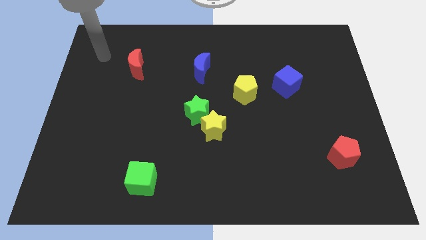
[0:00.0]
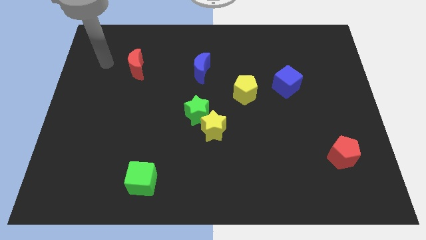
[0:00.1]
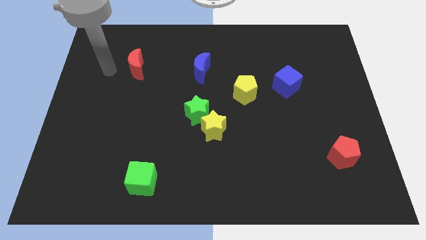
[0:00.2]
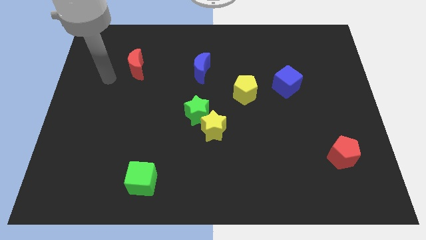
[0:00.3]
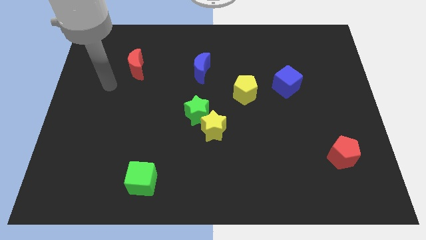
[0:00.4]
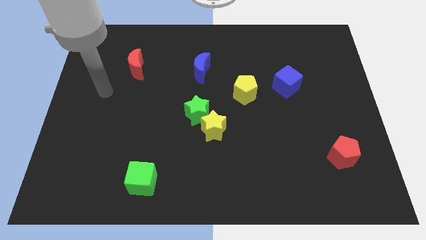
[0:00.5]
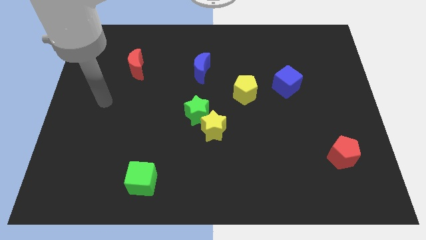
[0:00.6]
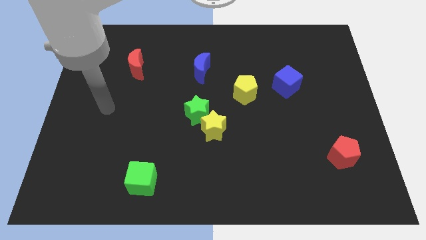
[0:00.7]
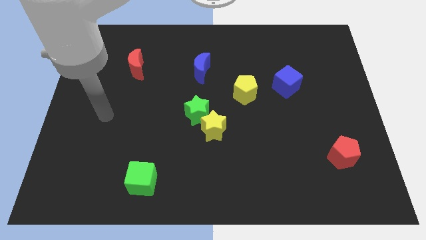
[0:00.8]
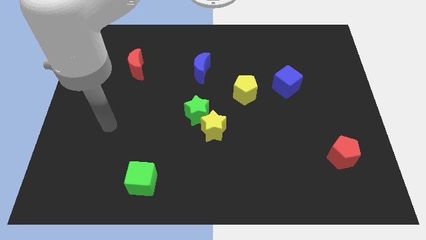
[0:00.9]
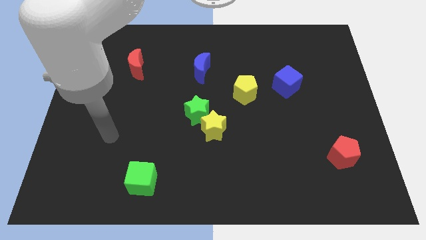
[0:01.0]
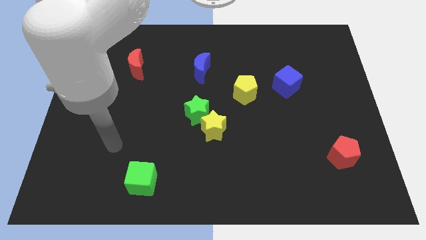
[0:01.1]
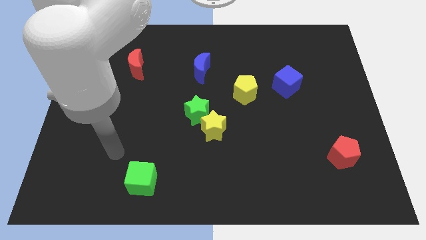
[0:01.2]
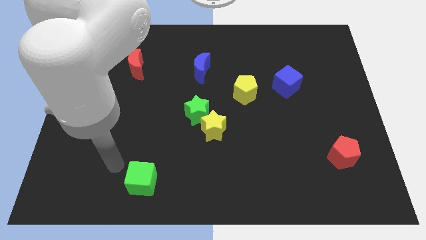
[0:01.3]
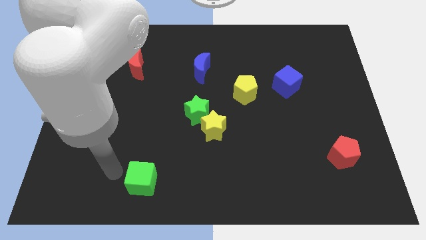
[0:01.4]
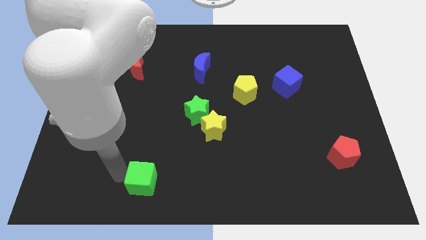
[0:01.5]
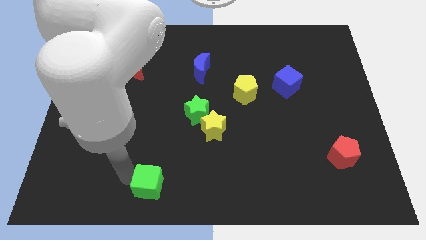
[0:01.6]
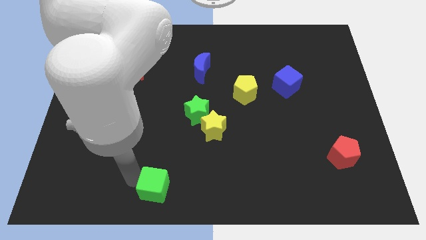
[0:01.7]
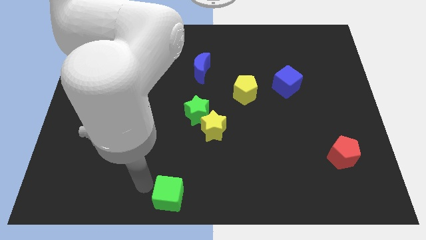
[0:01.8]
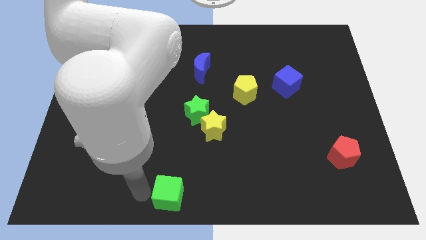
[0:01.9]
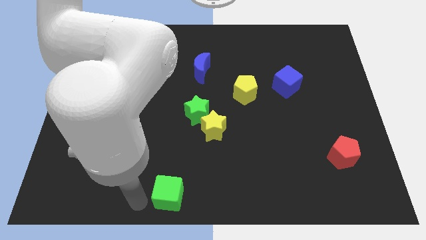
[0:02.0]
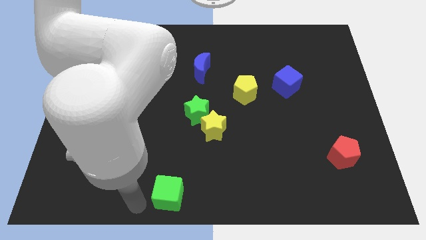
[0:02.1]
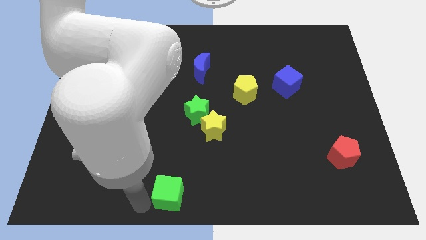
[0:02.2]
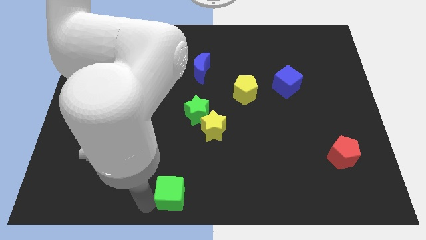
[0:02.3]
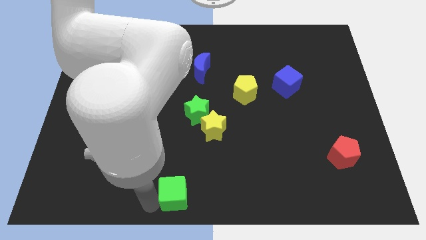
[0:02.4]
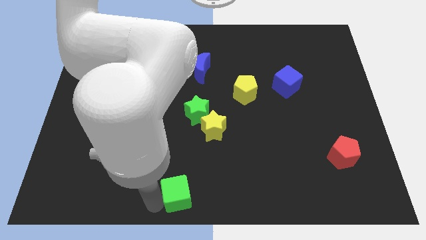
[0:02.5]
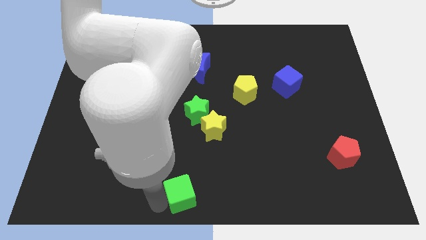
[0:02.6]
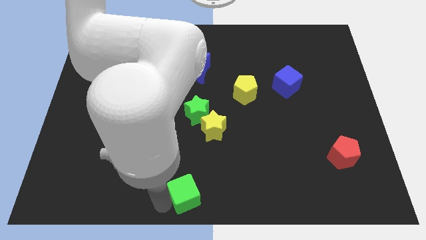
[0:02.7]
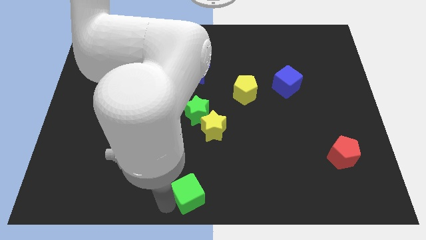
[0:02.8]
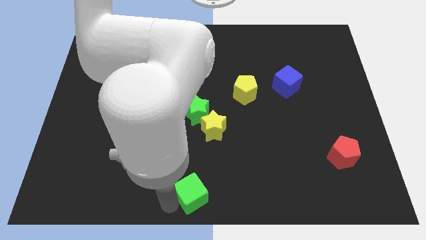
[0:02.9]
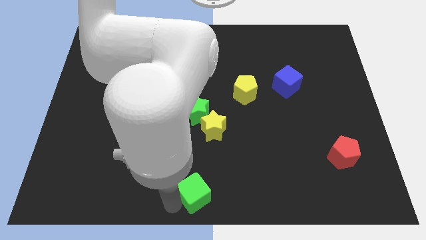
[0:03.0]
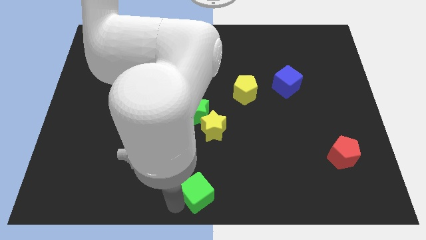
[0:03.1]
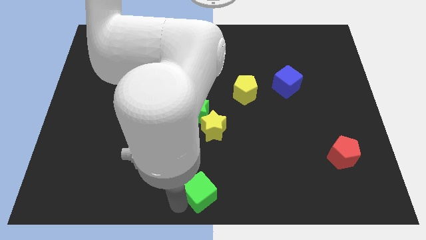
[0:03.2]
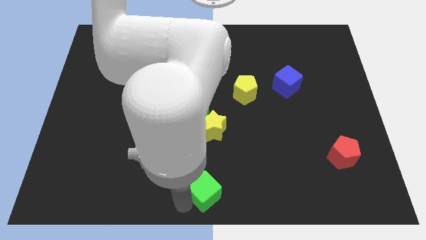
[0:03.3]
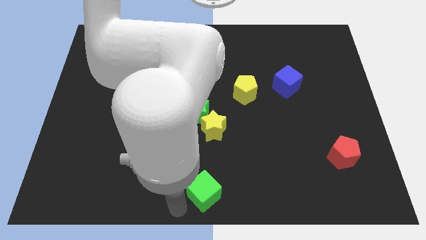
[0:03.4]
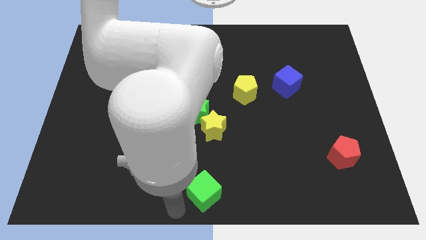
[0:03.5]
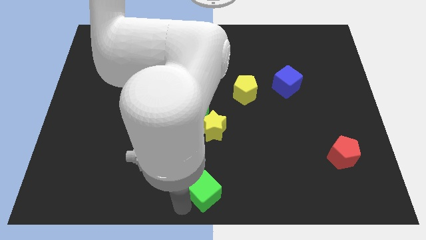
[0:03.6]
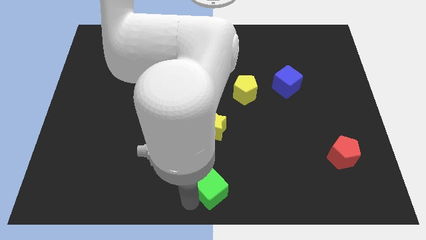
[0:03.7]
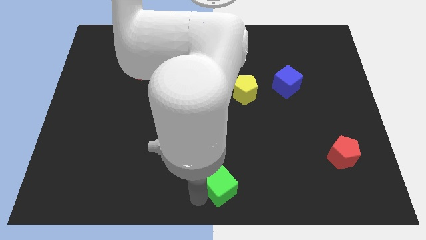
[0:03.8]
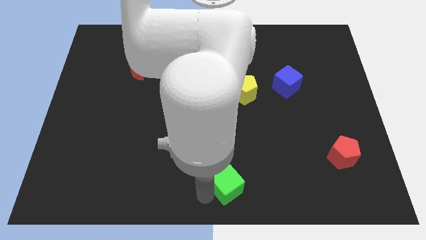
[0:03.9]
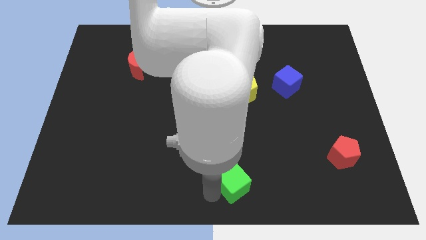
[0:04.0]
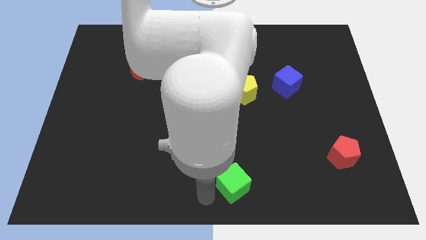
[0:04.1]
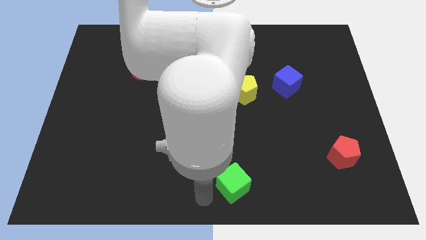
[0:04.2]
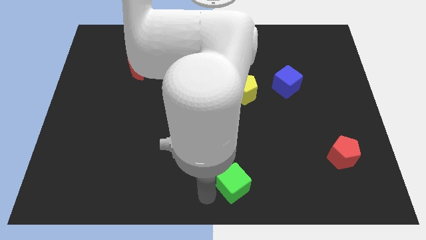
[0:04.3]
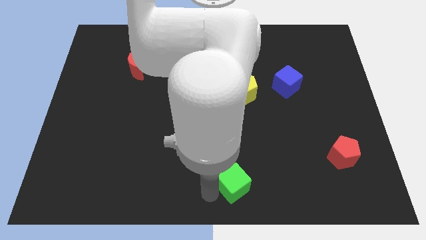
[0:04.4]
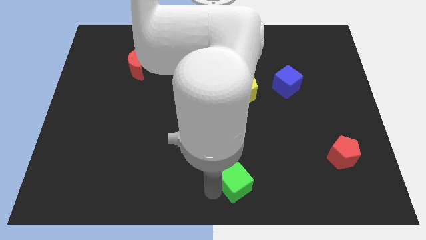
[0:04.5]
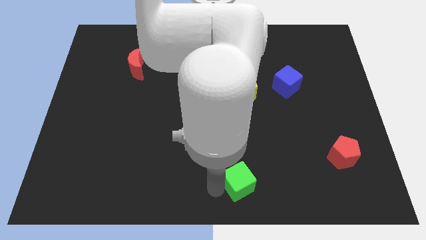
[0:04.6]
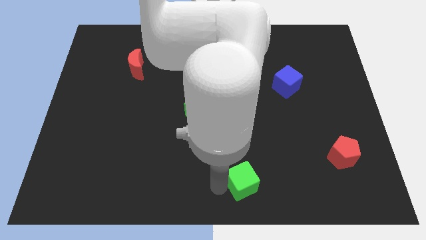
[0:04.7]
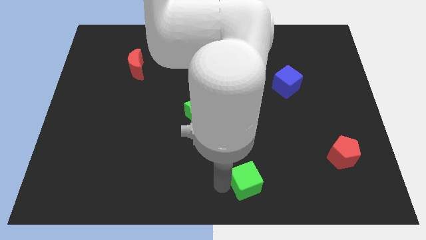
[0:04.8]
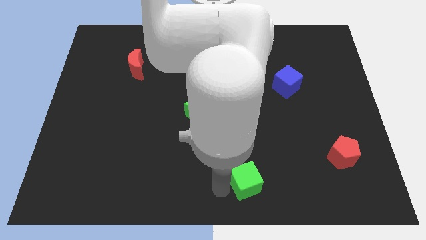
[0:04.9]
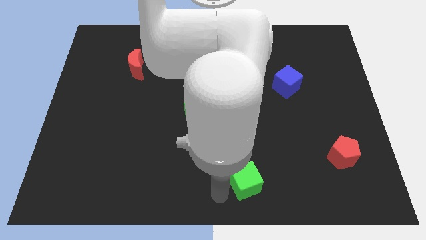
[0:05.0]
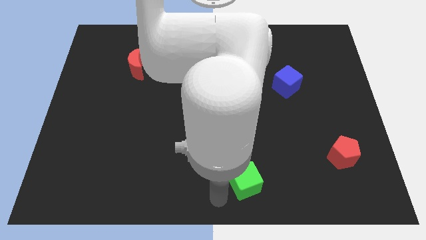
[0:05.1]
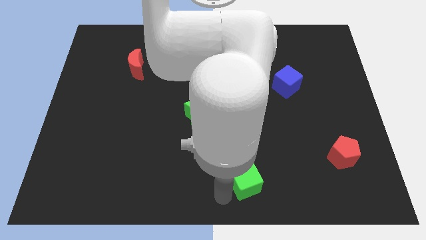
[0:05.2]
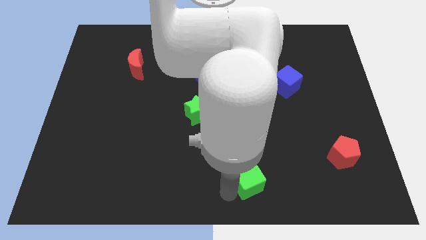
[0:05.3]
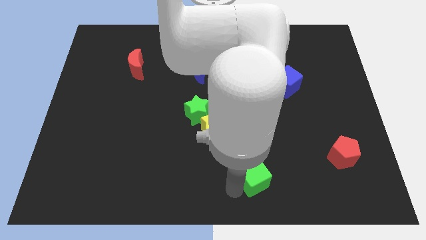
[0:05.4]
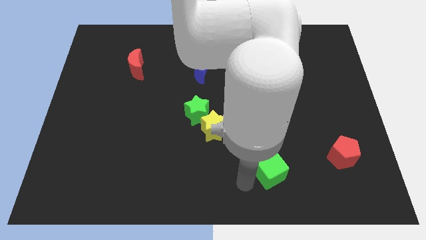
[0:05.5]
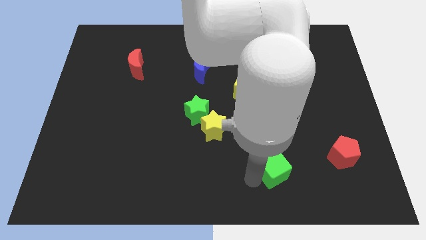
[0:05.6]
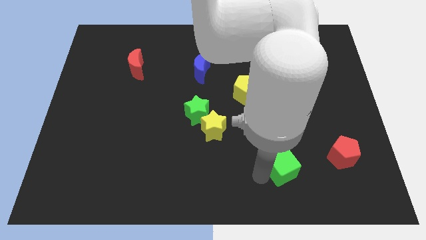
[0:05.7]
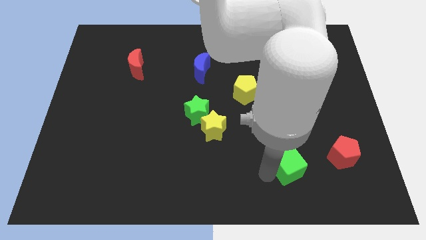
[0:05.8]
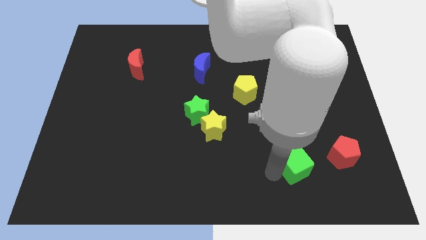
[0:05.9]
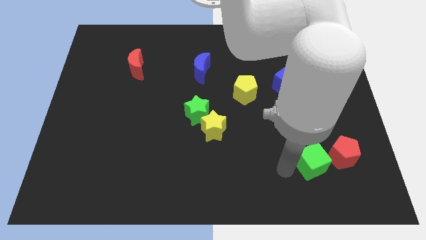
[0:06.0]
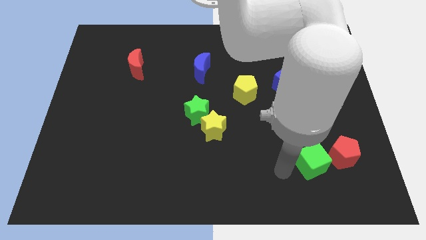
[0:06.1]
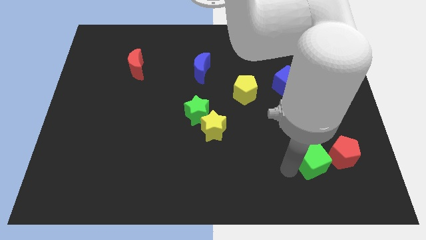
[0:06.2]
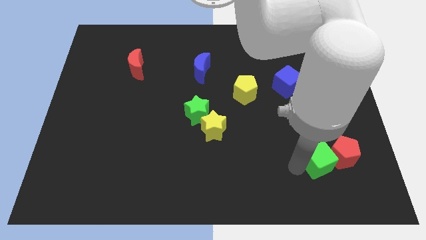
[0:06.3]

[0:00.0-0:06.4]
slide the green cube towards the red pentagon

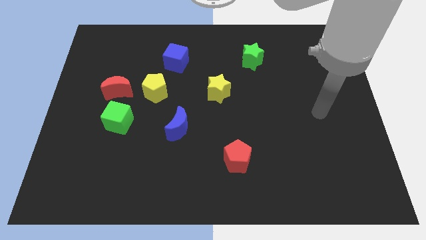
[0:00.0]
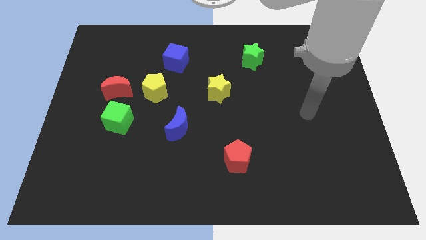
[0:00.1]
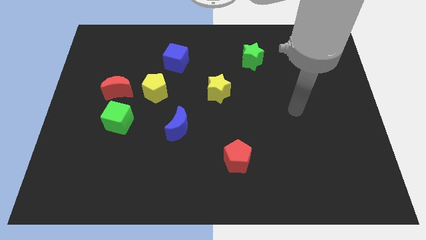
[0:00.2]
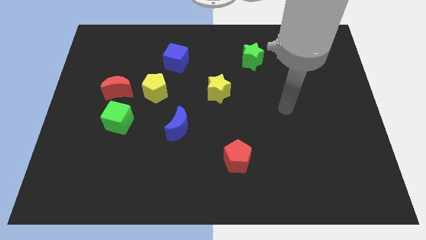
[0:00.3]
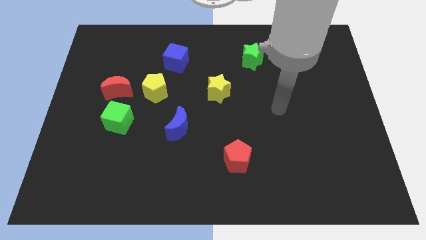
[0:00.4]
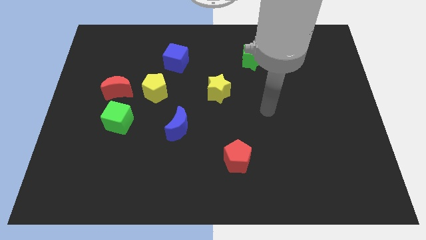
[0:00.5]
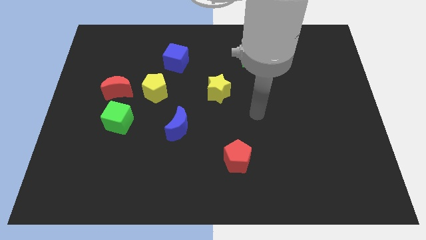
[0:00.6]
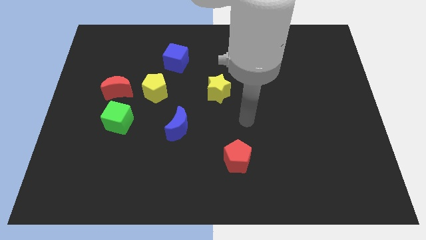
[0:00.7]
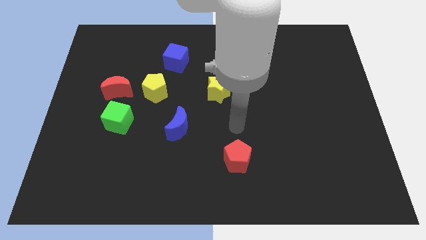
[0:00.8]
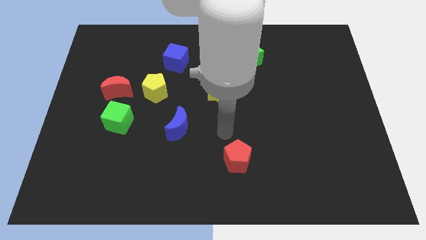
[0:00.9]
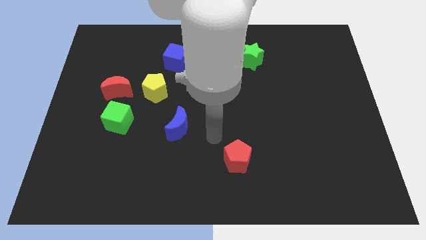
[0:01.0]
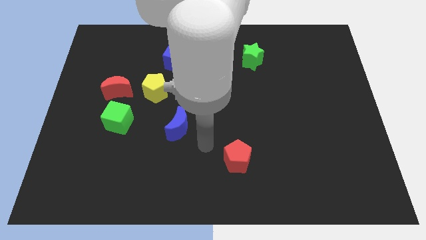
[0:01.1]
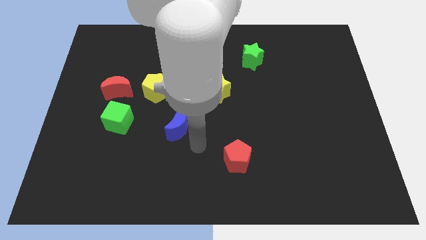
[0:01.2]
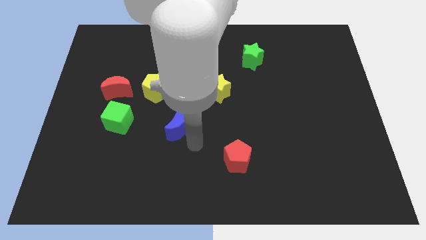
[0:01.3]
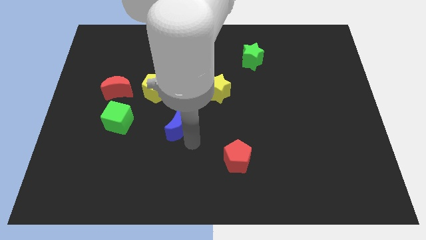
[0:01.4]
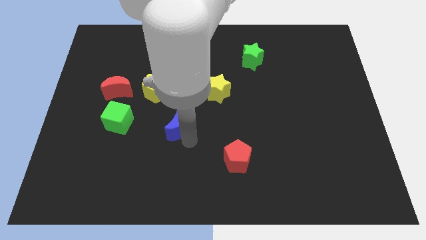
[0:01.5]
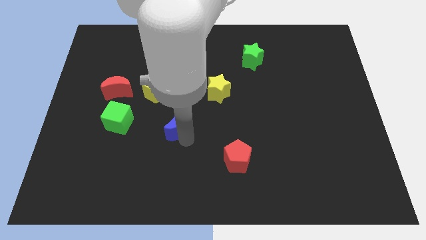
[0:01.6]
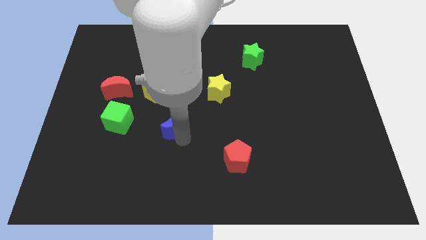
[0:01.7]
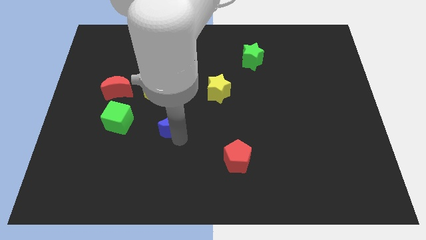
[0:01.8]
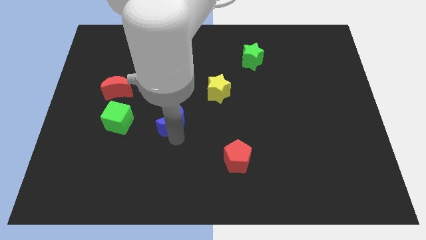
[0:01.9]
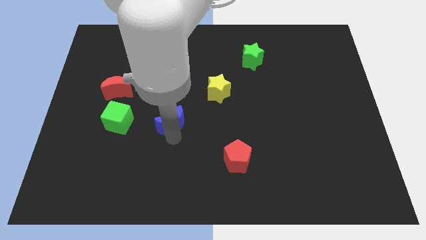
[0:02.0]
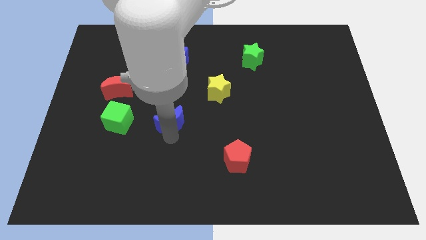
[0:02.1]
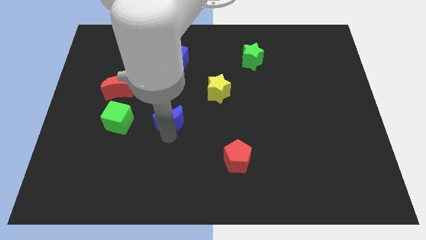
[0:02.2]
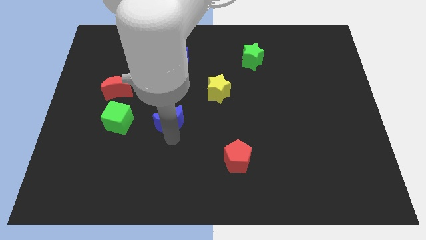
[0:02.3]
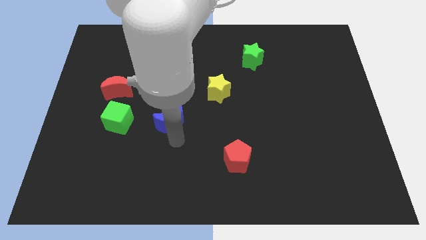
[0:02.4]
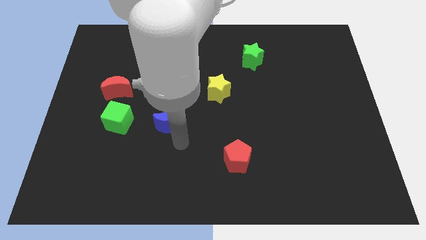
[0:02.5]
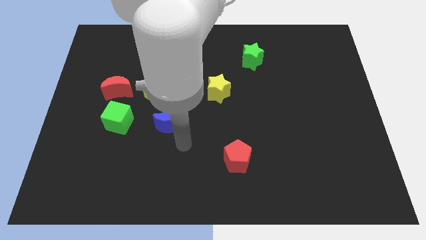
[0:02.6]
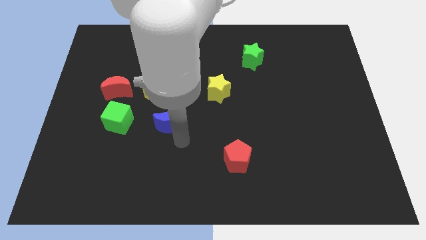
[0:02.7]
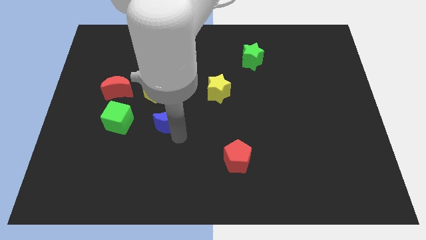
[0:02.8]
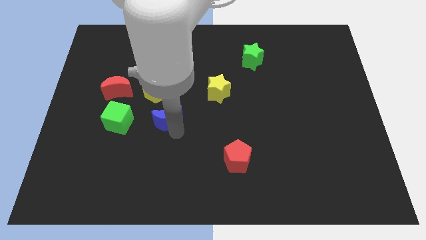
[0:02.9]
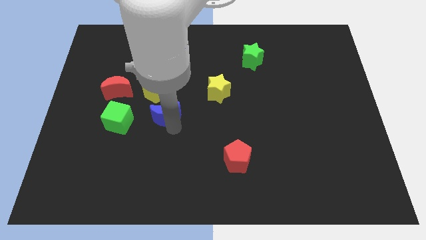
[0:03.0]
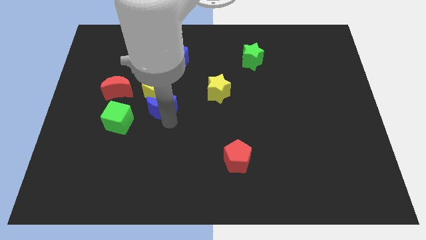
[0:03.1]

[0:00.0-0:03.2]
slide the blue moon to the yellow pentagon
